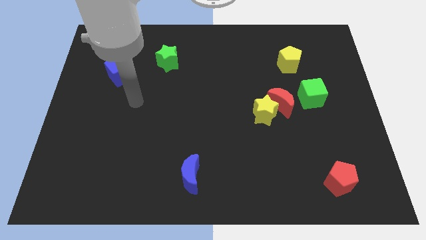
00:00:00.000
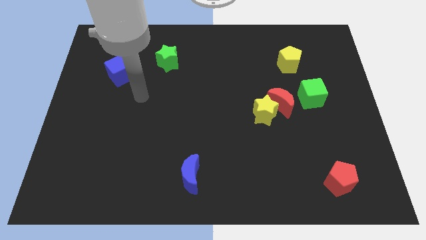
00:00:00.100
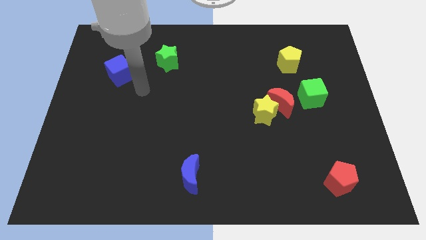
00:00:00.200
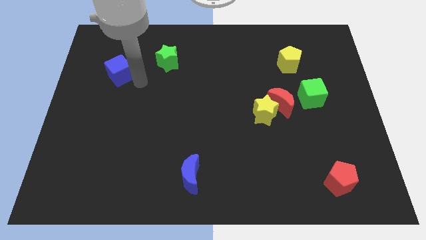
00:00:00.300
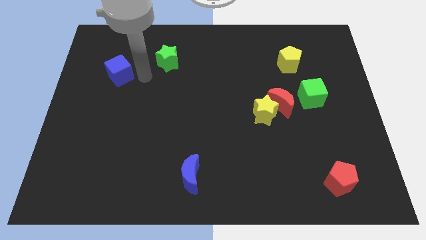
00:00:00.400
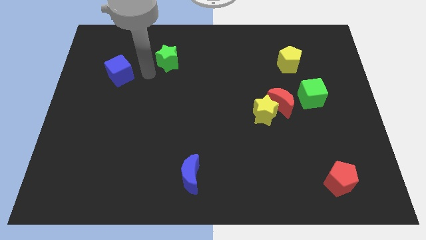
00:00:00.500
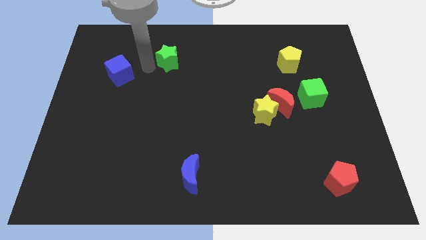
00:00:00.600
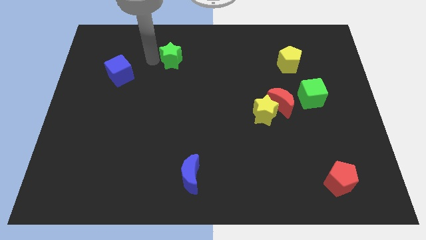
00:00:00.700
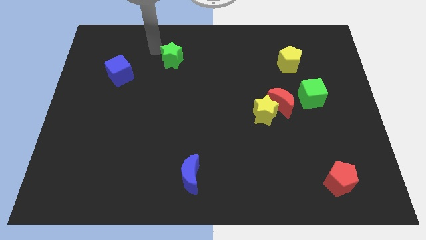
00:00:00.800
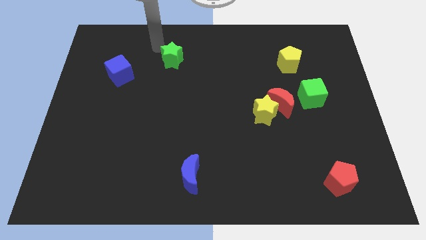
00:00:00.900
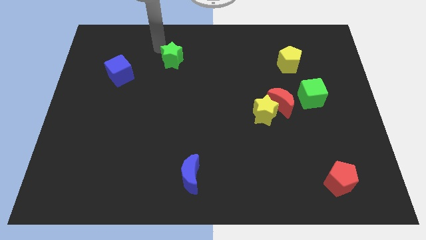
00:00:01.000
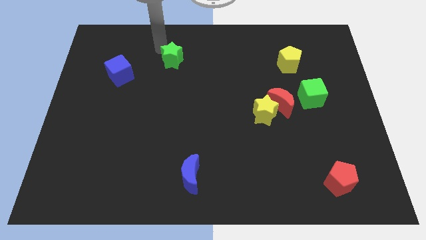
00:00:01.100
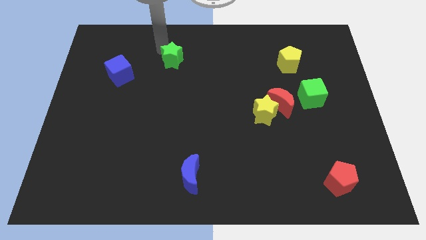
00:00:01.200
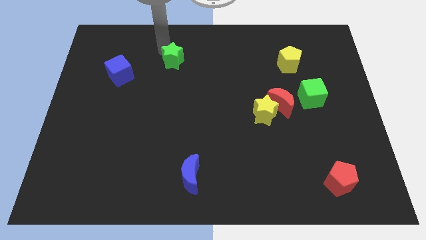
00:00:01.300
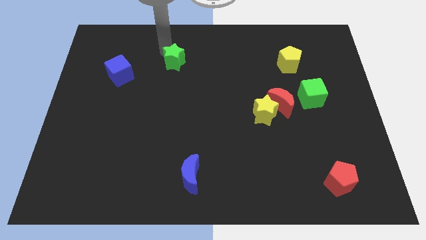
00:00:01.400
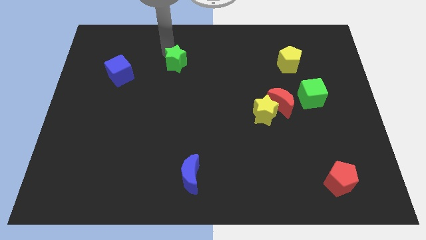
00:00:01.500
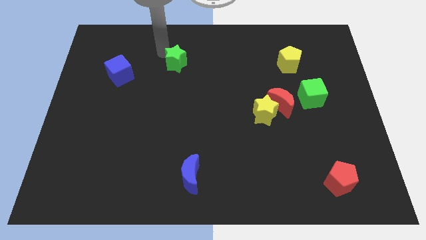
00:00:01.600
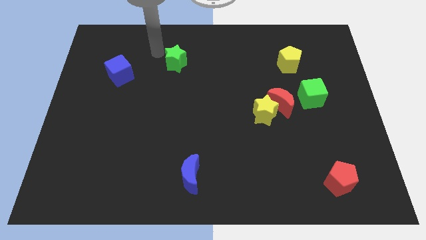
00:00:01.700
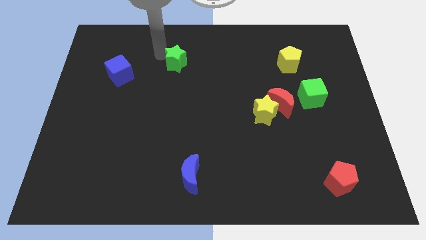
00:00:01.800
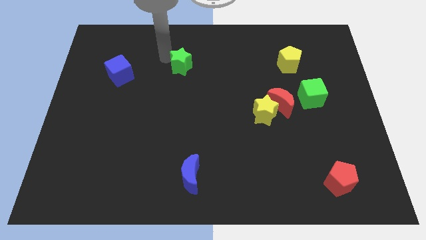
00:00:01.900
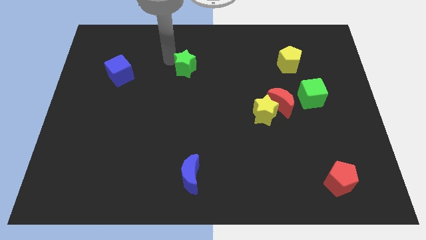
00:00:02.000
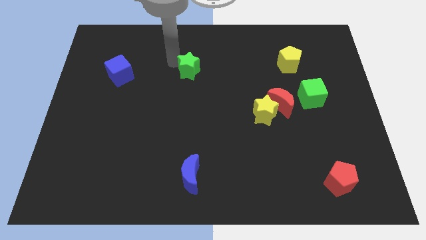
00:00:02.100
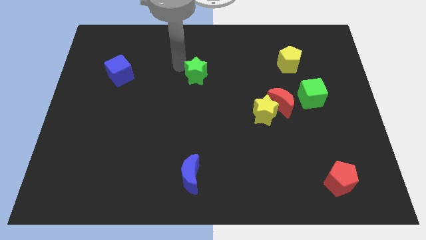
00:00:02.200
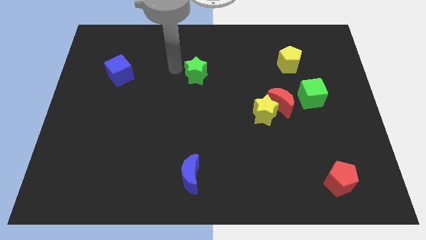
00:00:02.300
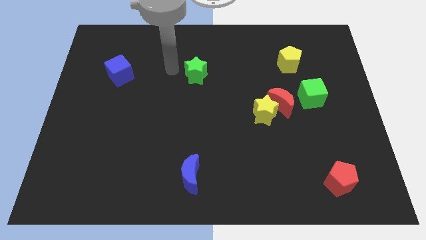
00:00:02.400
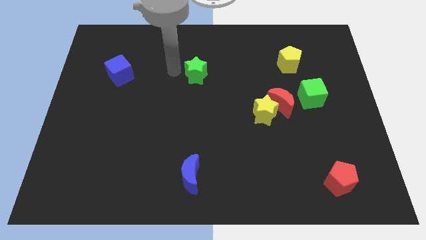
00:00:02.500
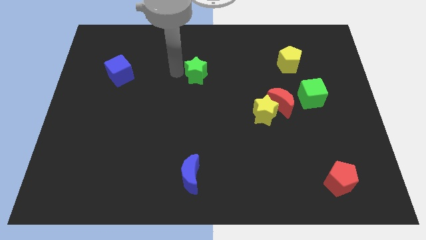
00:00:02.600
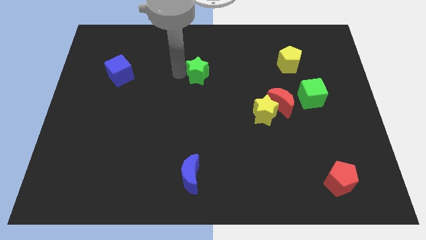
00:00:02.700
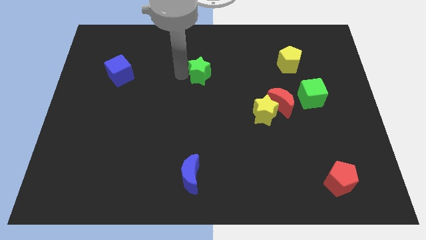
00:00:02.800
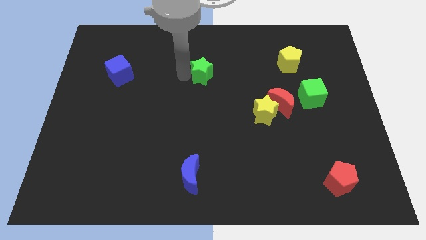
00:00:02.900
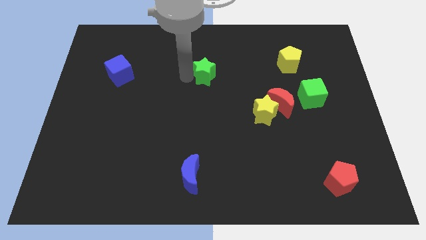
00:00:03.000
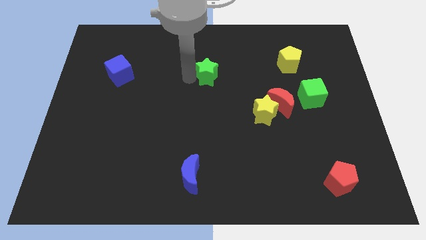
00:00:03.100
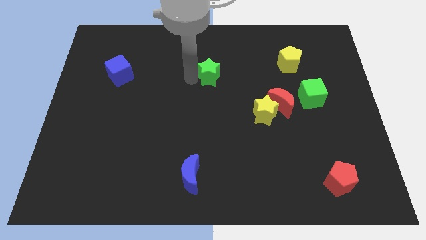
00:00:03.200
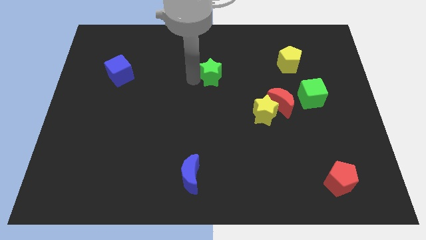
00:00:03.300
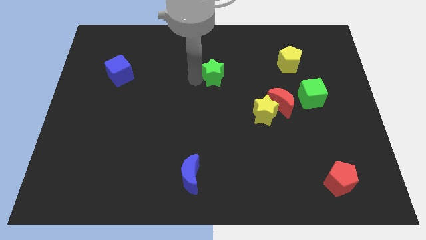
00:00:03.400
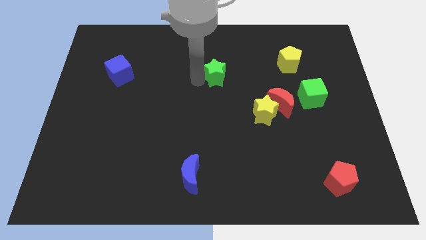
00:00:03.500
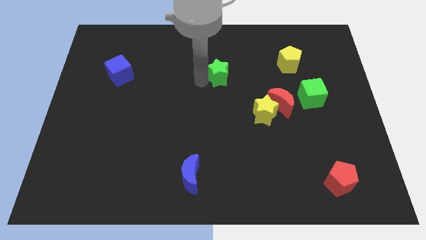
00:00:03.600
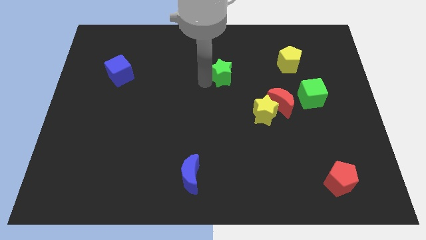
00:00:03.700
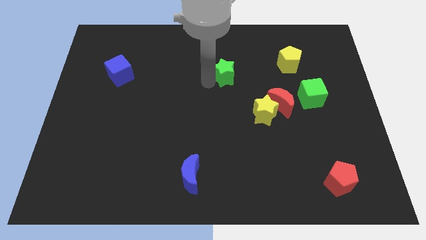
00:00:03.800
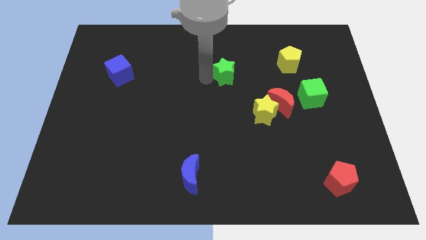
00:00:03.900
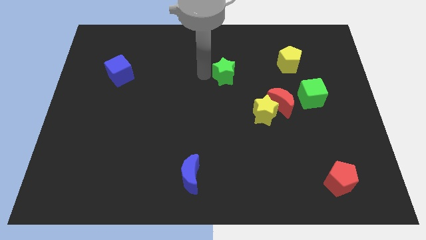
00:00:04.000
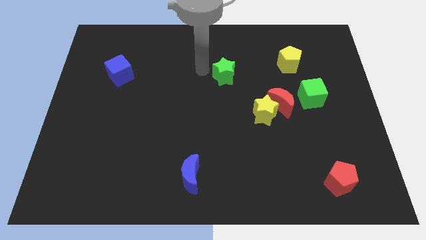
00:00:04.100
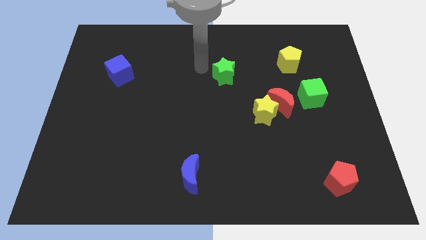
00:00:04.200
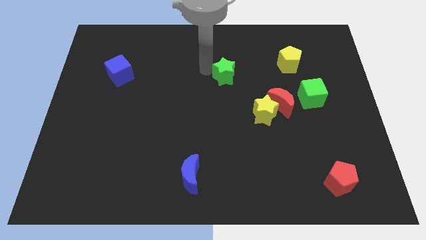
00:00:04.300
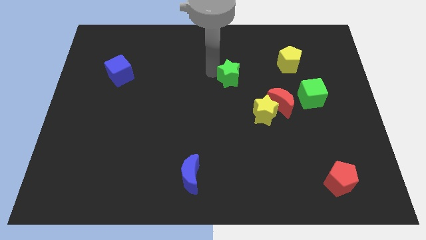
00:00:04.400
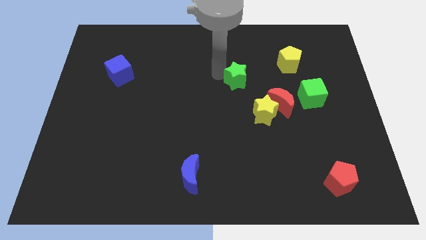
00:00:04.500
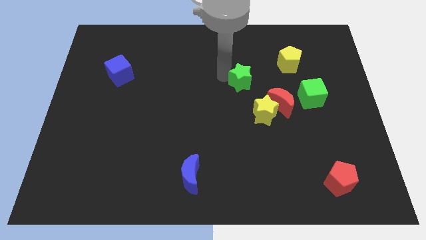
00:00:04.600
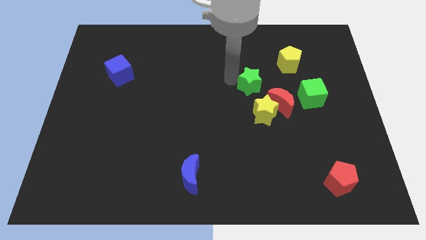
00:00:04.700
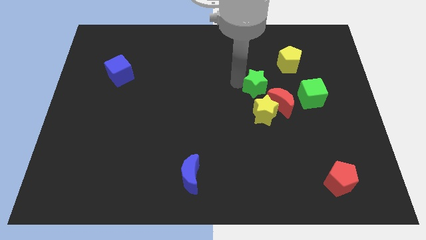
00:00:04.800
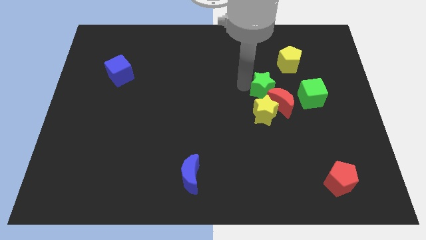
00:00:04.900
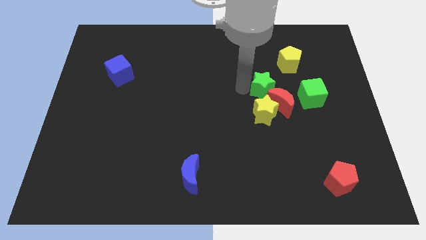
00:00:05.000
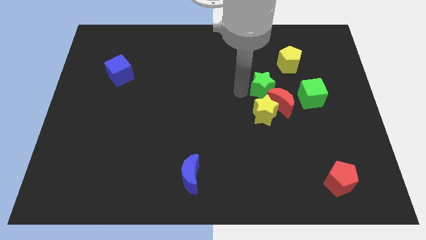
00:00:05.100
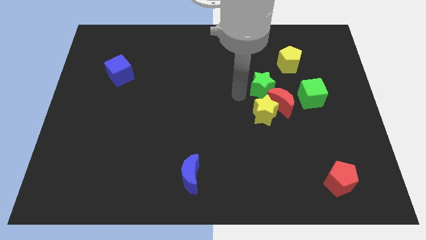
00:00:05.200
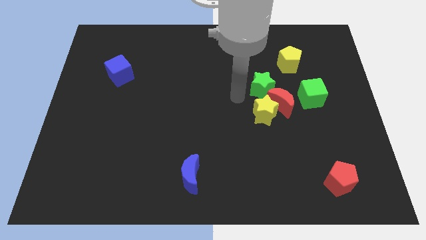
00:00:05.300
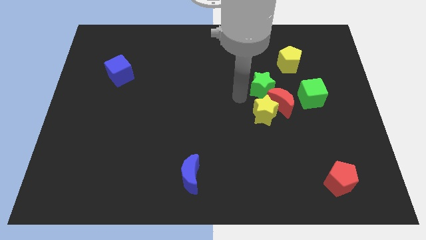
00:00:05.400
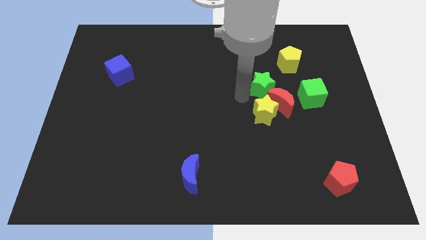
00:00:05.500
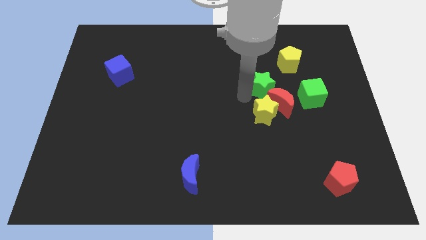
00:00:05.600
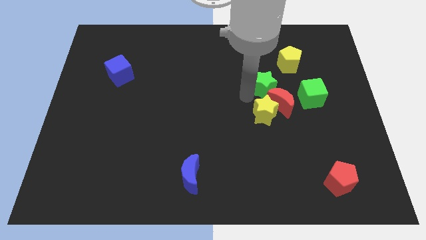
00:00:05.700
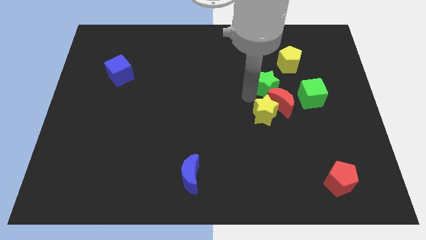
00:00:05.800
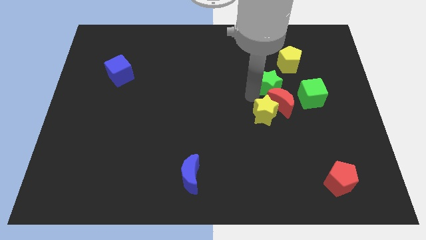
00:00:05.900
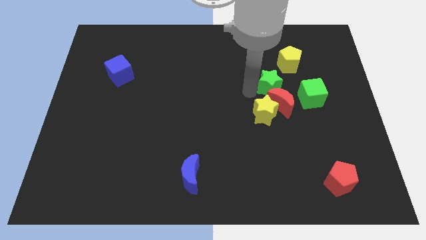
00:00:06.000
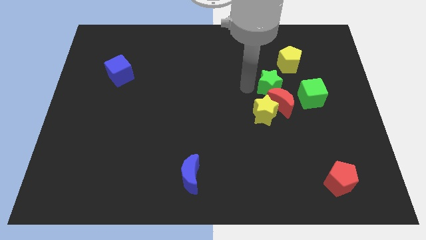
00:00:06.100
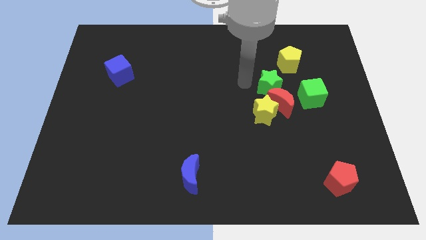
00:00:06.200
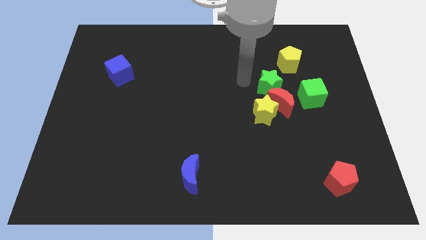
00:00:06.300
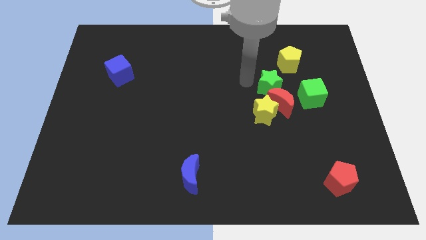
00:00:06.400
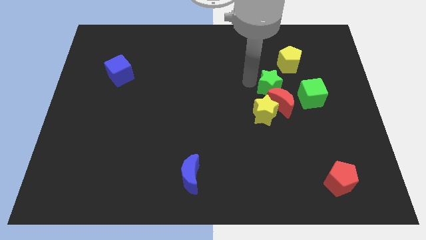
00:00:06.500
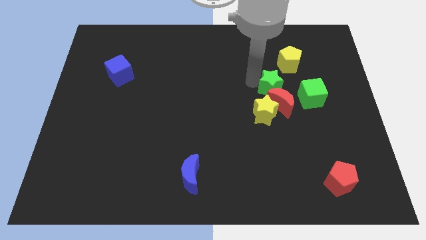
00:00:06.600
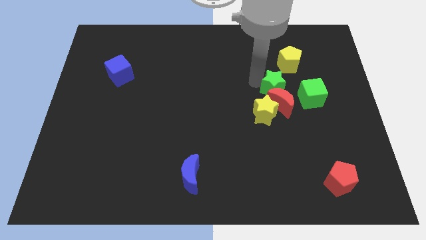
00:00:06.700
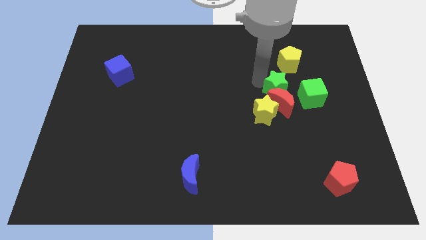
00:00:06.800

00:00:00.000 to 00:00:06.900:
put the green star below the yellow pentagon
